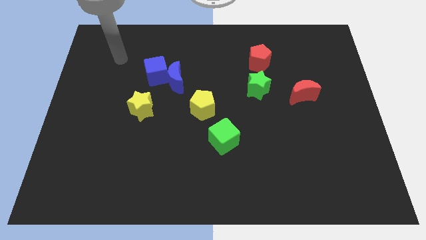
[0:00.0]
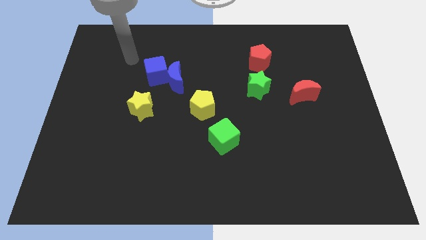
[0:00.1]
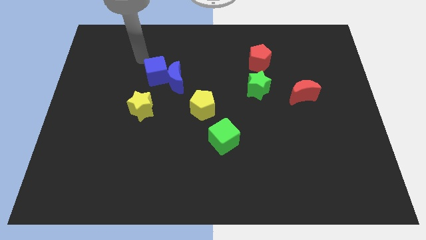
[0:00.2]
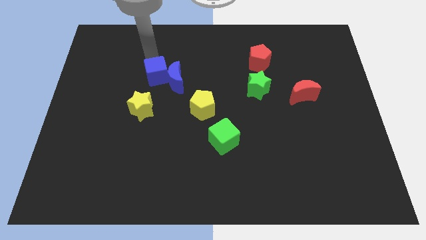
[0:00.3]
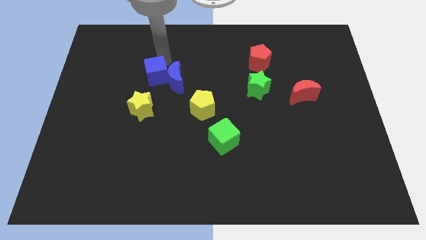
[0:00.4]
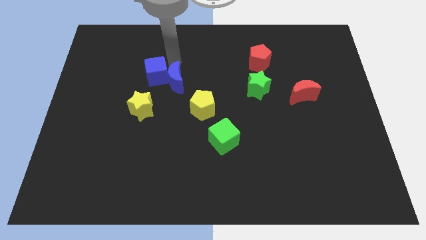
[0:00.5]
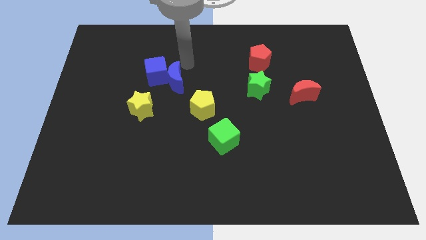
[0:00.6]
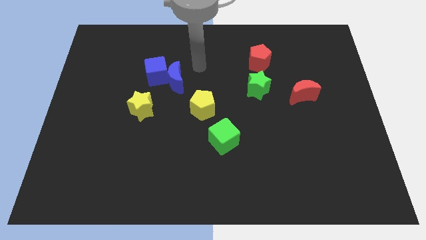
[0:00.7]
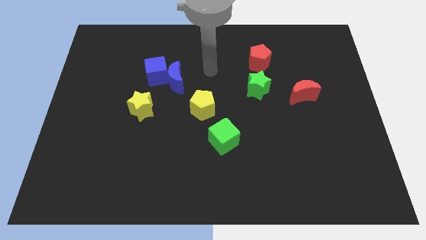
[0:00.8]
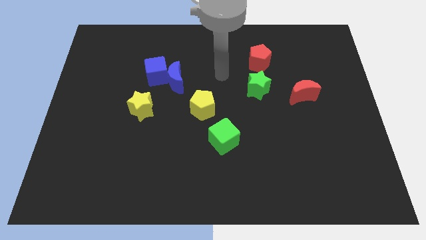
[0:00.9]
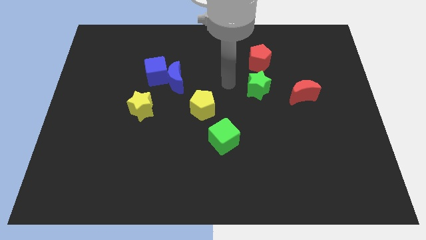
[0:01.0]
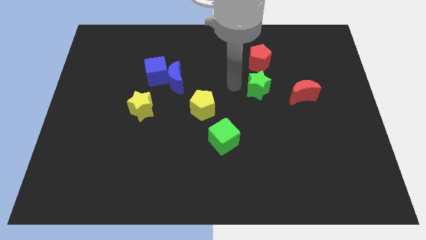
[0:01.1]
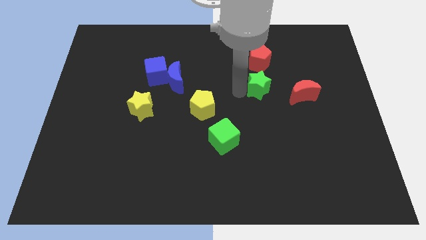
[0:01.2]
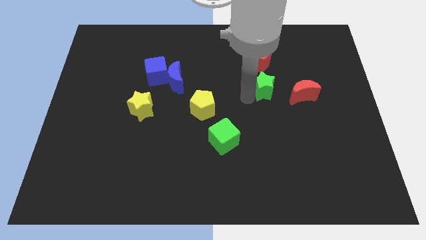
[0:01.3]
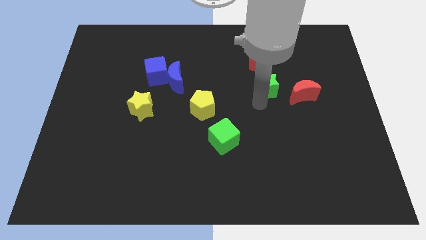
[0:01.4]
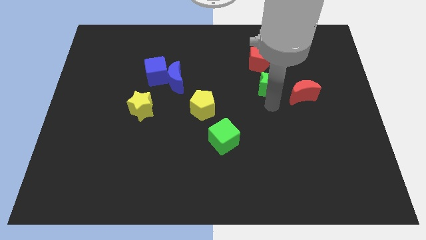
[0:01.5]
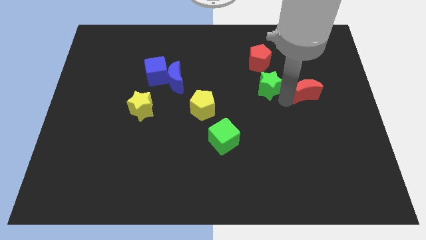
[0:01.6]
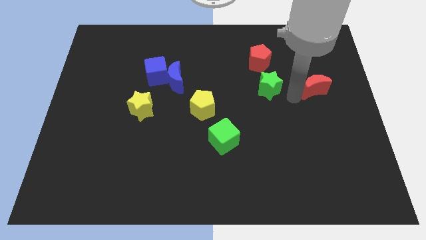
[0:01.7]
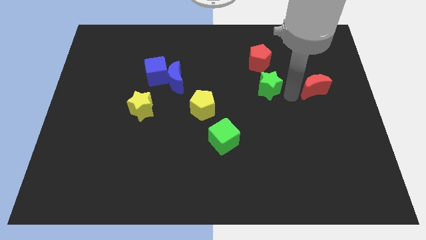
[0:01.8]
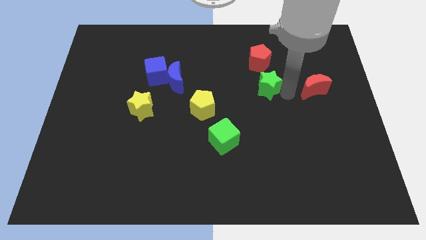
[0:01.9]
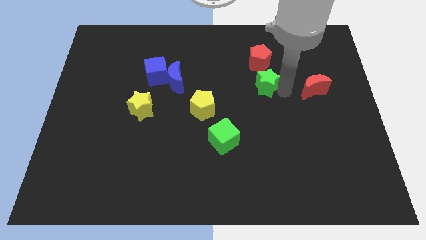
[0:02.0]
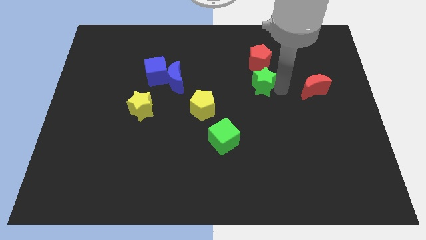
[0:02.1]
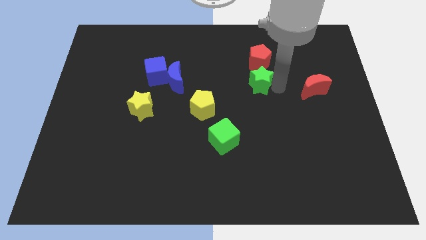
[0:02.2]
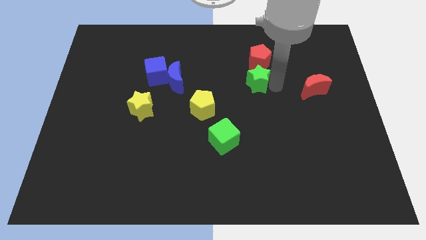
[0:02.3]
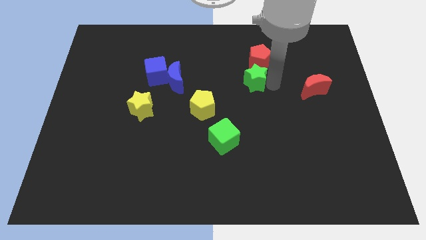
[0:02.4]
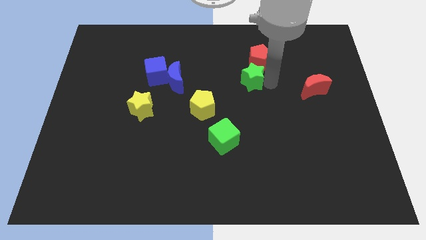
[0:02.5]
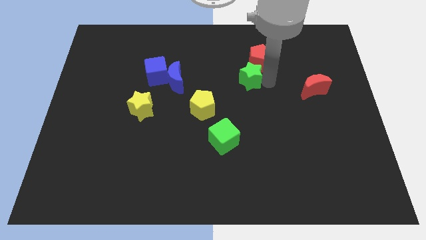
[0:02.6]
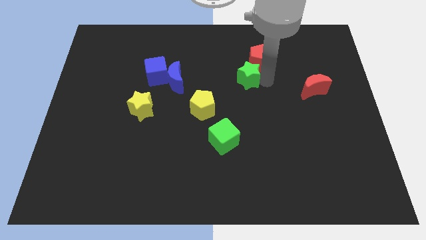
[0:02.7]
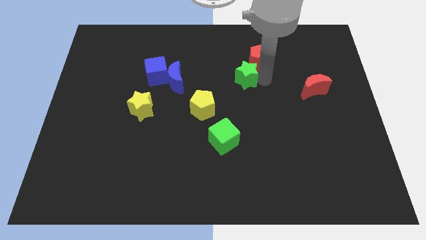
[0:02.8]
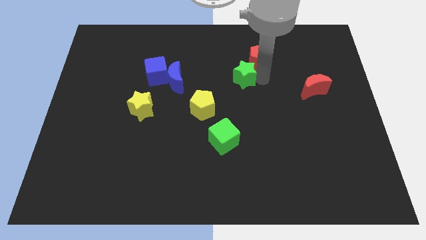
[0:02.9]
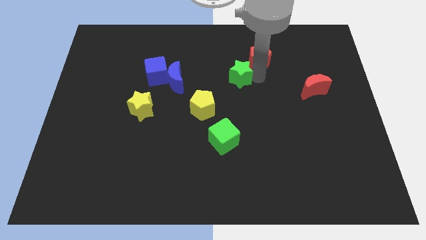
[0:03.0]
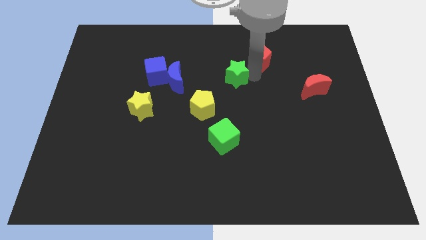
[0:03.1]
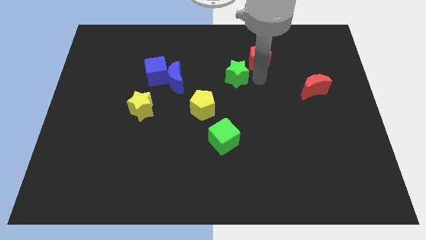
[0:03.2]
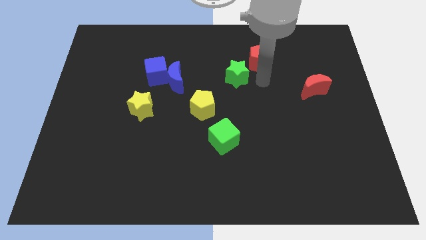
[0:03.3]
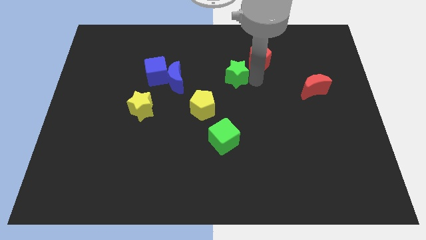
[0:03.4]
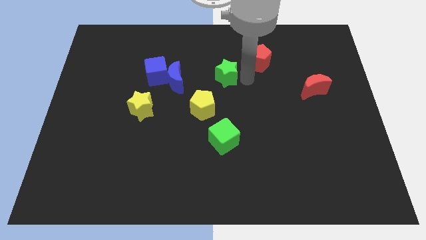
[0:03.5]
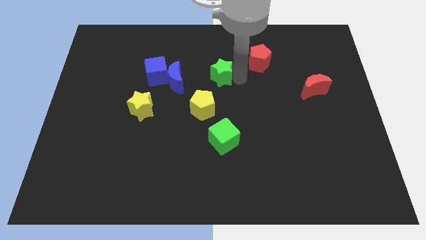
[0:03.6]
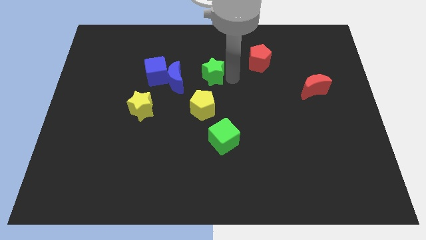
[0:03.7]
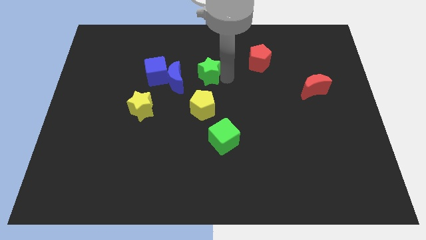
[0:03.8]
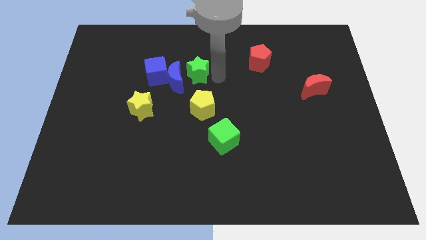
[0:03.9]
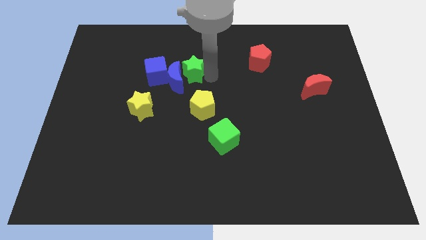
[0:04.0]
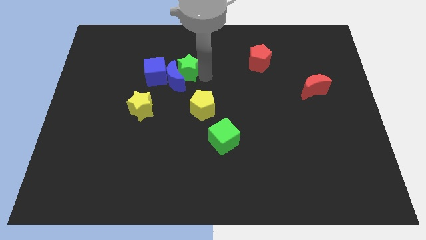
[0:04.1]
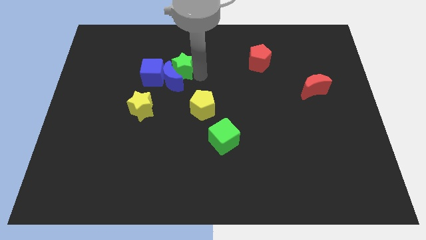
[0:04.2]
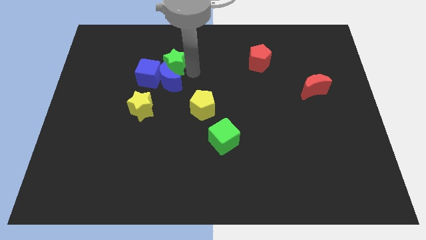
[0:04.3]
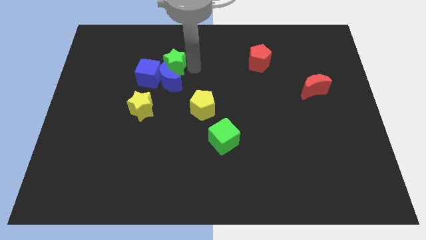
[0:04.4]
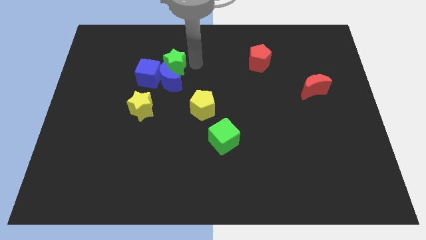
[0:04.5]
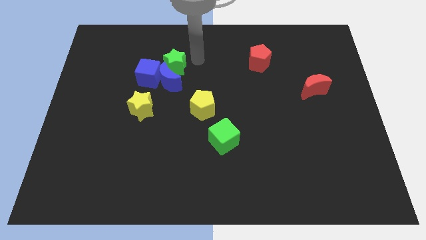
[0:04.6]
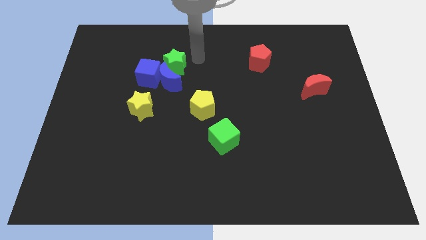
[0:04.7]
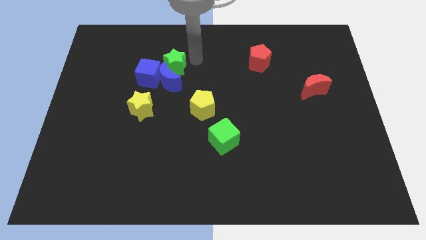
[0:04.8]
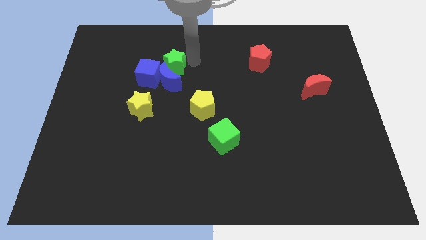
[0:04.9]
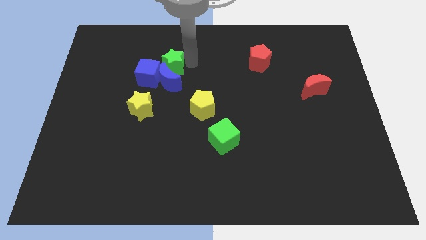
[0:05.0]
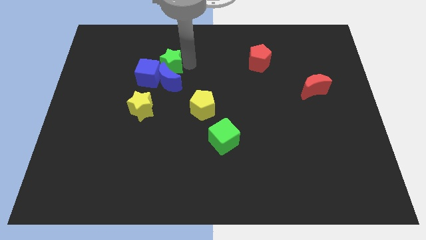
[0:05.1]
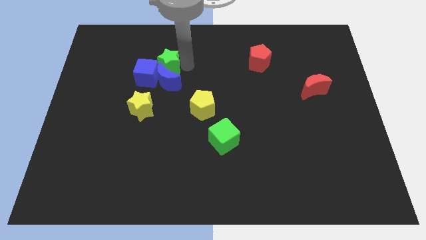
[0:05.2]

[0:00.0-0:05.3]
put the green star towards the blue cube
